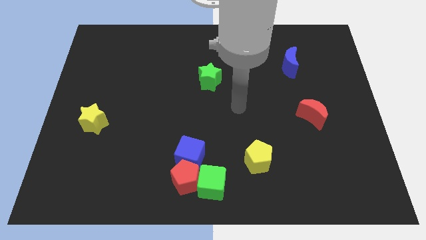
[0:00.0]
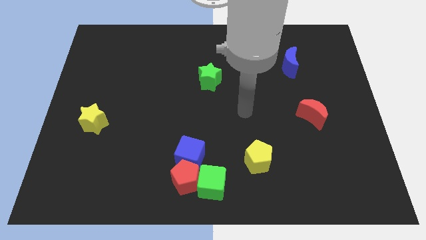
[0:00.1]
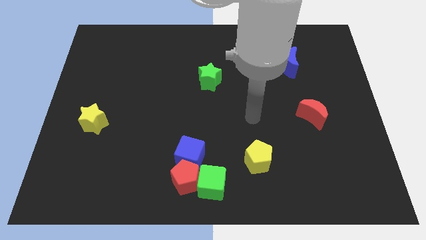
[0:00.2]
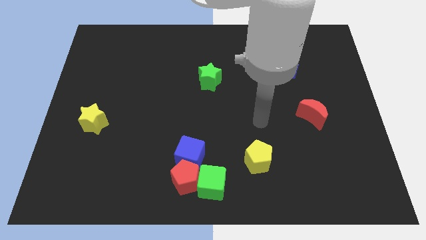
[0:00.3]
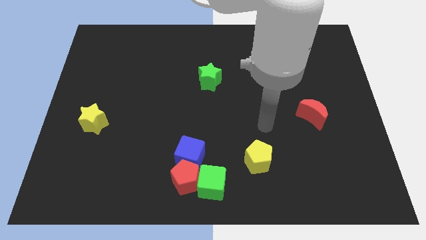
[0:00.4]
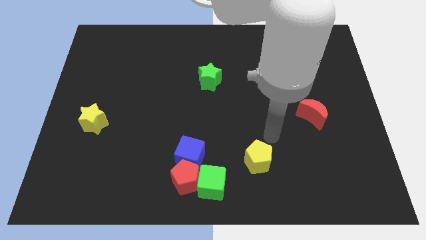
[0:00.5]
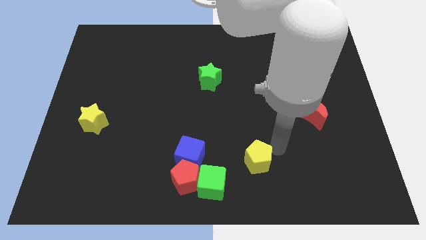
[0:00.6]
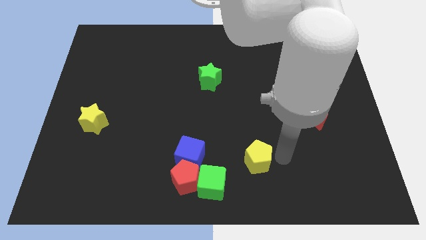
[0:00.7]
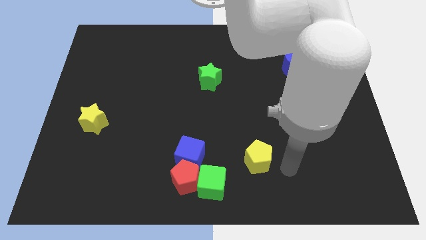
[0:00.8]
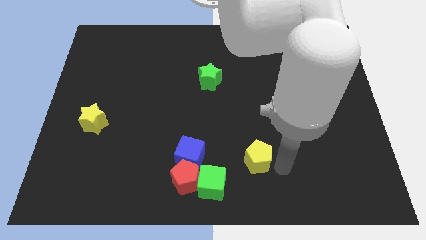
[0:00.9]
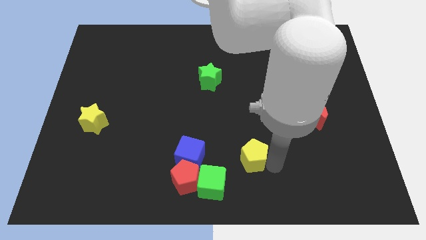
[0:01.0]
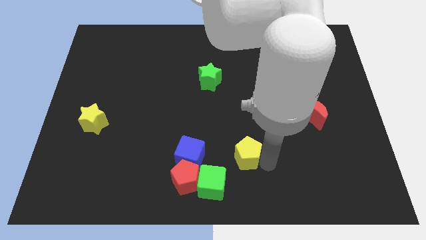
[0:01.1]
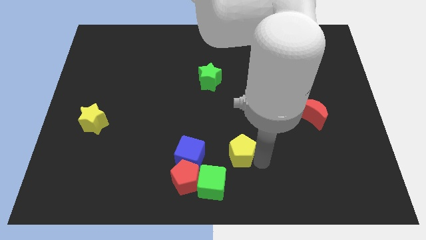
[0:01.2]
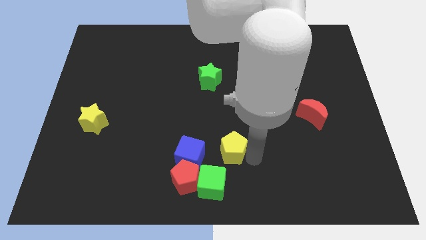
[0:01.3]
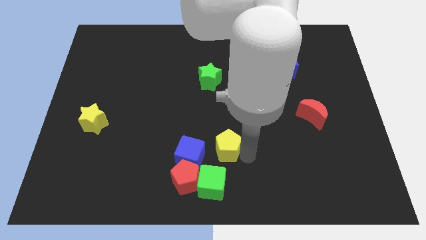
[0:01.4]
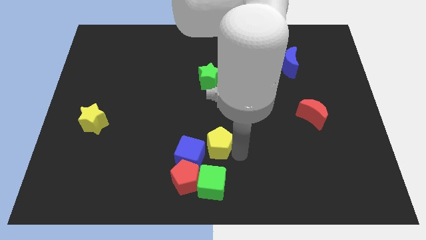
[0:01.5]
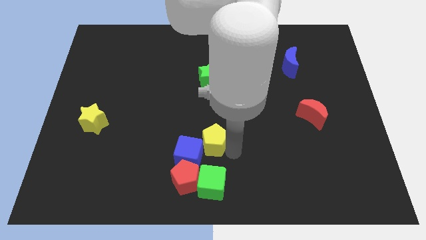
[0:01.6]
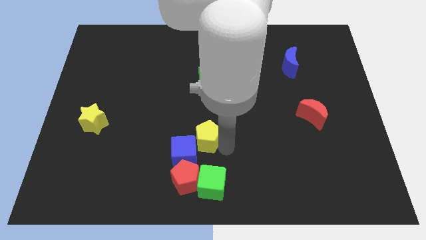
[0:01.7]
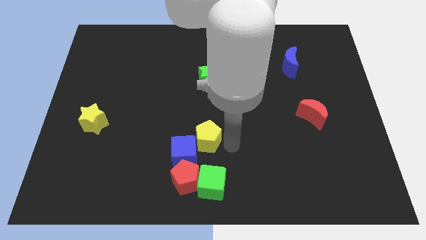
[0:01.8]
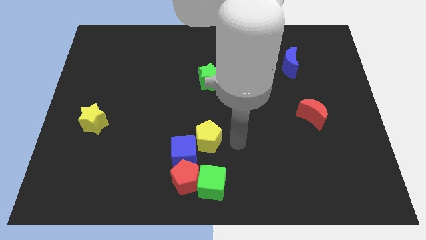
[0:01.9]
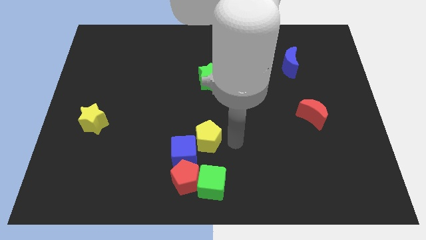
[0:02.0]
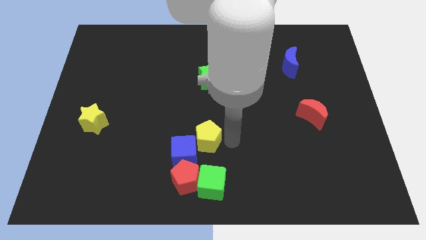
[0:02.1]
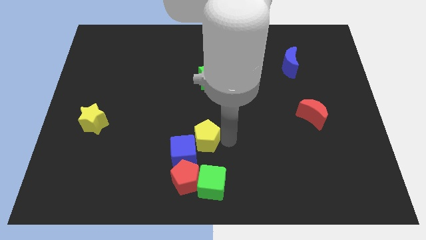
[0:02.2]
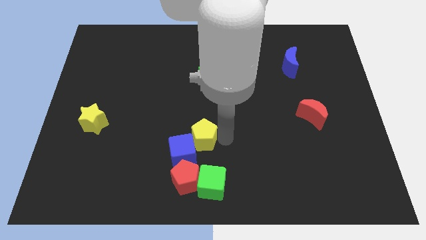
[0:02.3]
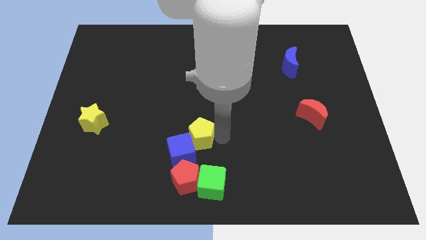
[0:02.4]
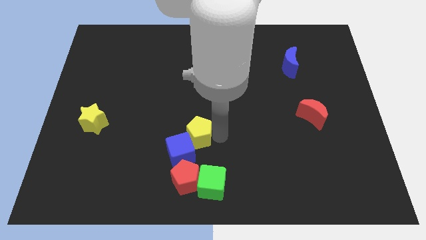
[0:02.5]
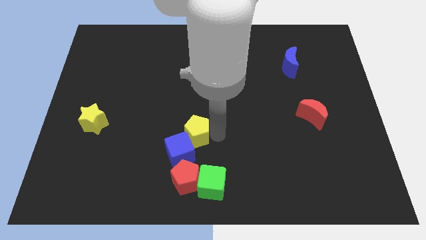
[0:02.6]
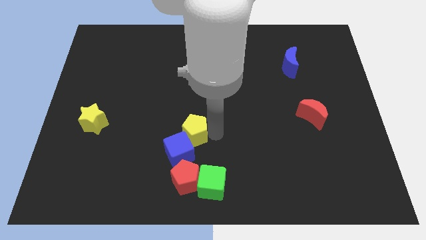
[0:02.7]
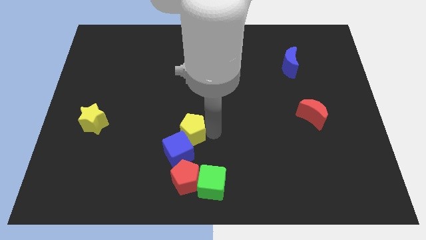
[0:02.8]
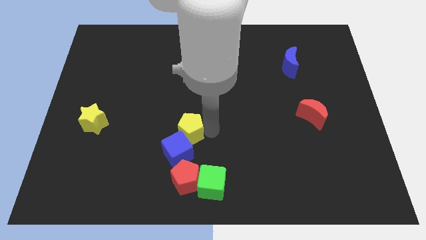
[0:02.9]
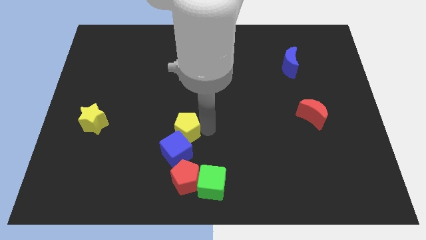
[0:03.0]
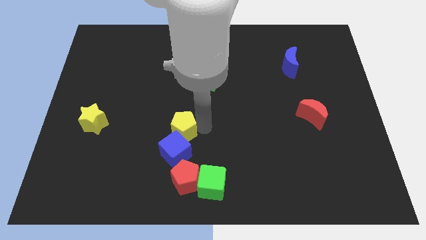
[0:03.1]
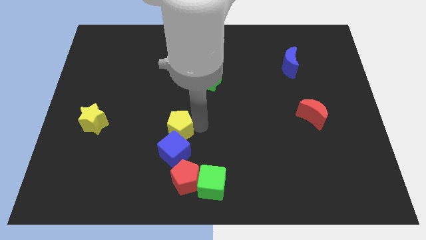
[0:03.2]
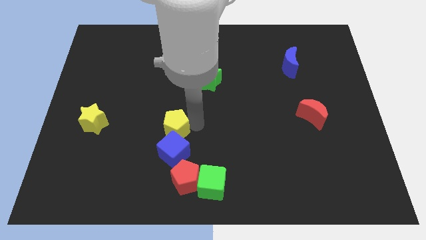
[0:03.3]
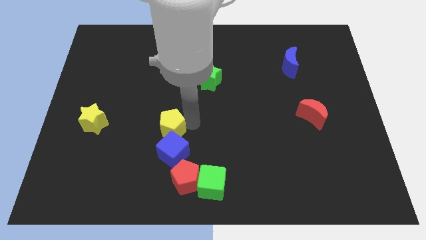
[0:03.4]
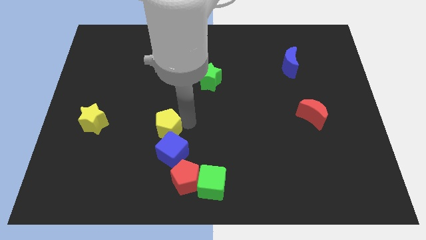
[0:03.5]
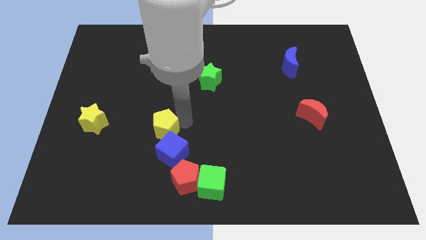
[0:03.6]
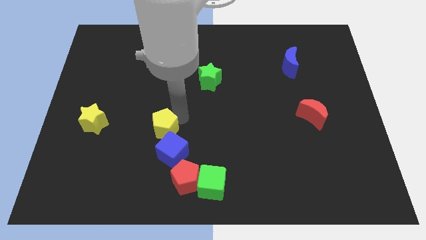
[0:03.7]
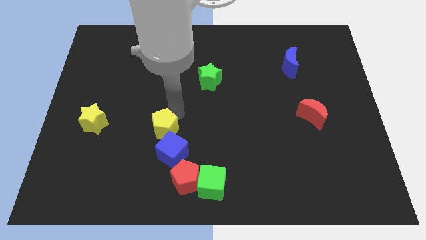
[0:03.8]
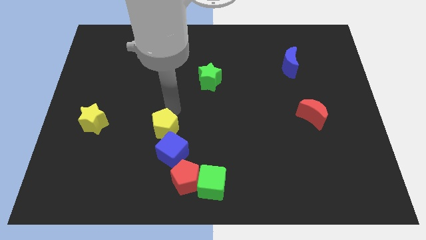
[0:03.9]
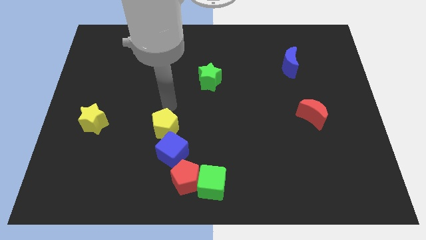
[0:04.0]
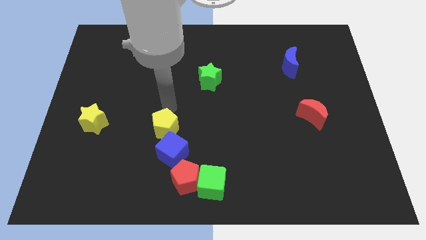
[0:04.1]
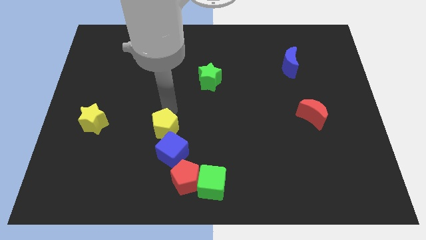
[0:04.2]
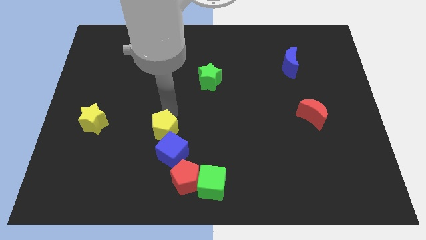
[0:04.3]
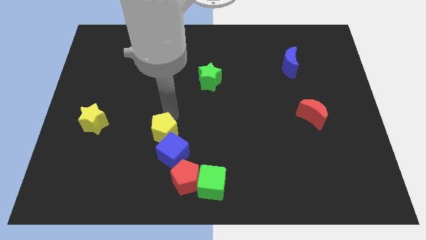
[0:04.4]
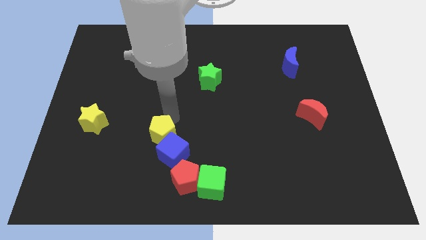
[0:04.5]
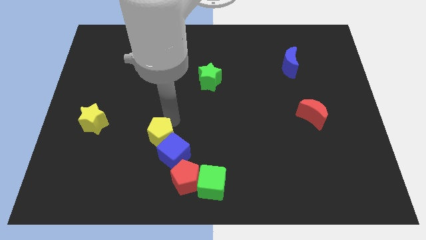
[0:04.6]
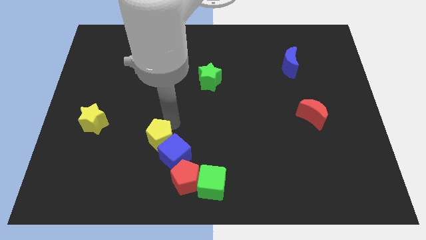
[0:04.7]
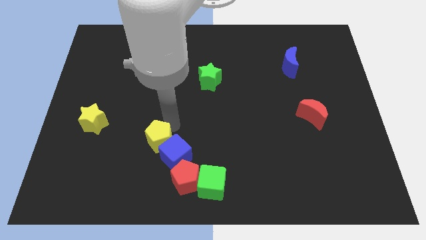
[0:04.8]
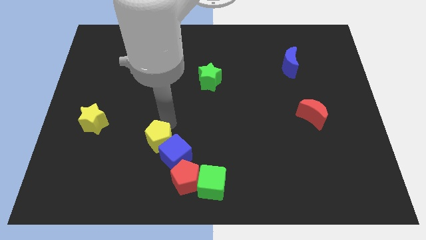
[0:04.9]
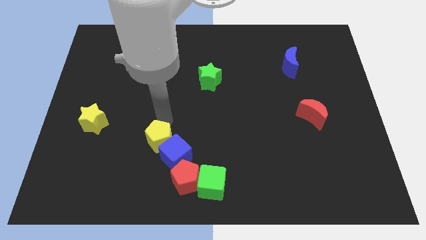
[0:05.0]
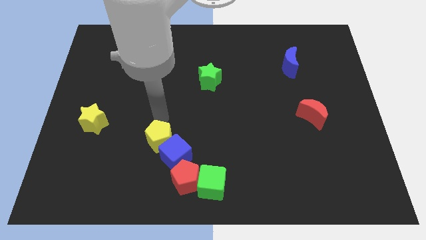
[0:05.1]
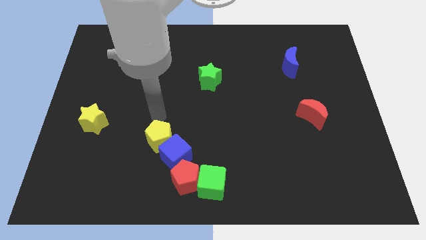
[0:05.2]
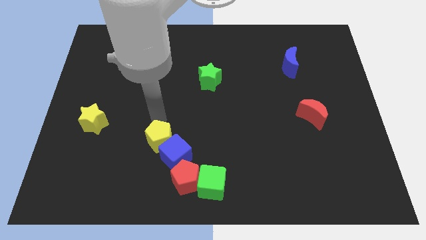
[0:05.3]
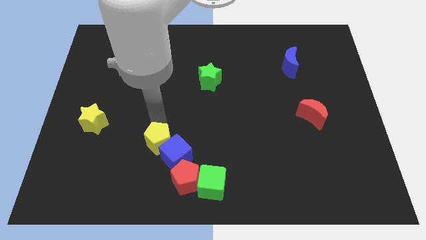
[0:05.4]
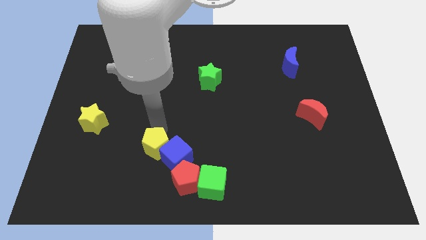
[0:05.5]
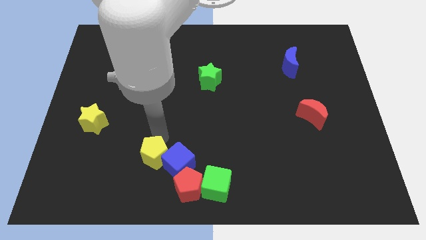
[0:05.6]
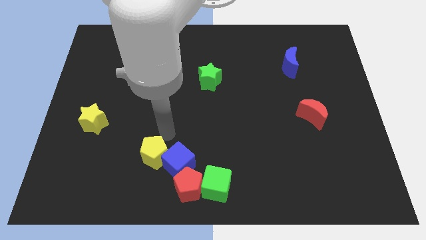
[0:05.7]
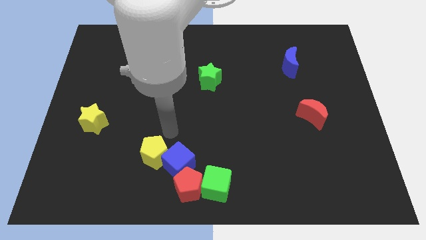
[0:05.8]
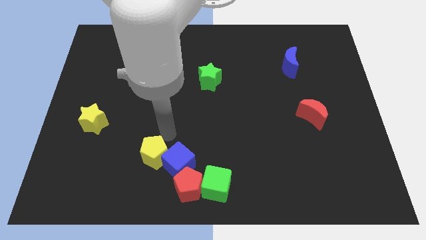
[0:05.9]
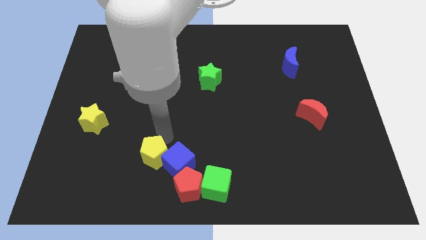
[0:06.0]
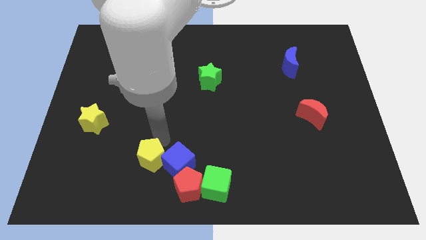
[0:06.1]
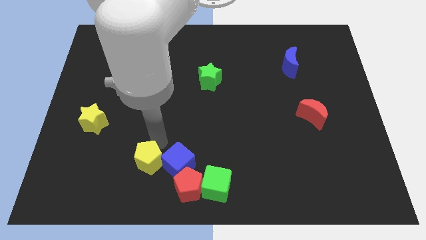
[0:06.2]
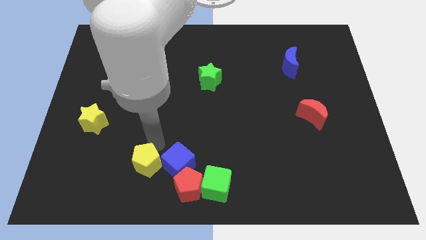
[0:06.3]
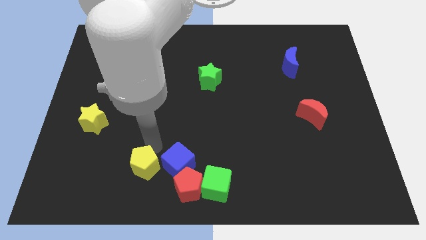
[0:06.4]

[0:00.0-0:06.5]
slide the yellow pentagon to the left of the red pentagon
